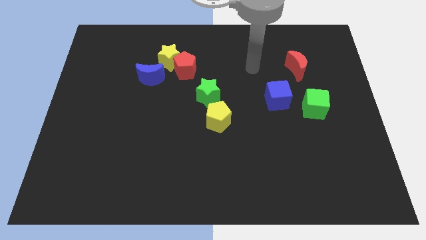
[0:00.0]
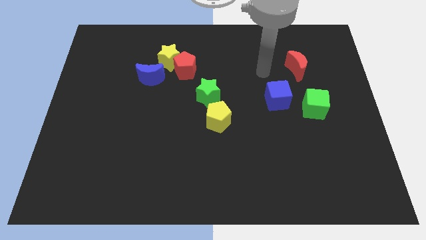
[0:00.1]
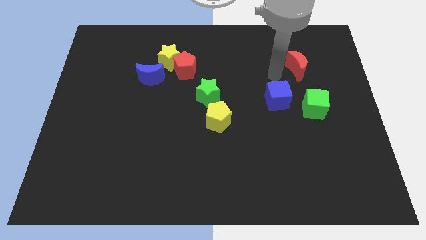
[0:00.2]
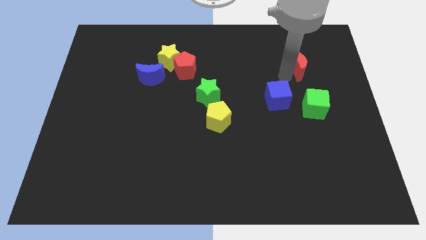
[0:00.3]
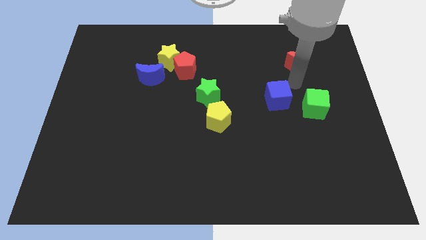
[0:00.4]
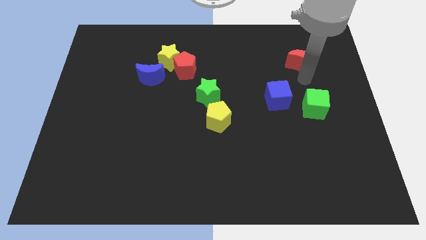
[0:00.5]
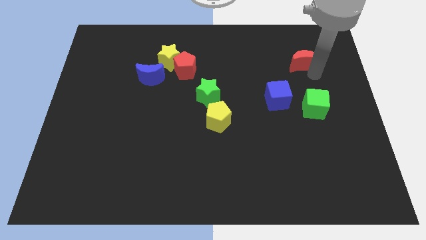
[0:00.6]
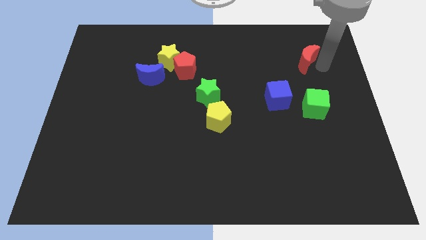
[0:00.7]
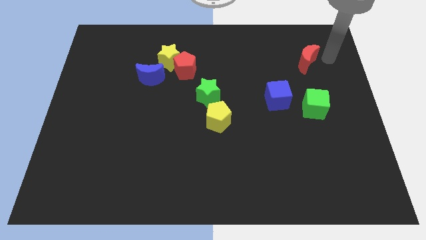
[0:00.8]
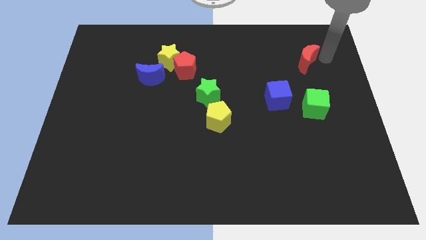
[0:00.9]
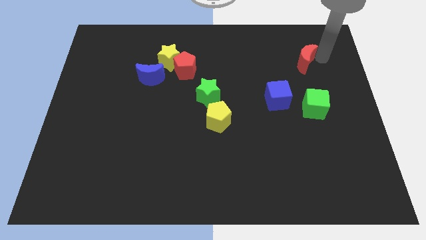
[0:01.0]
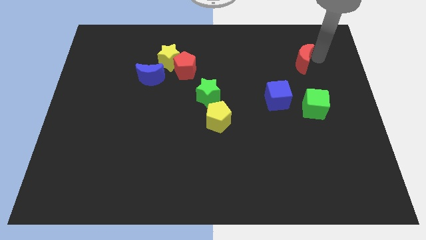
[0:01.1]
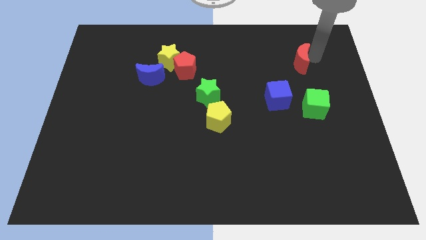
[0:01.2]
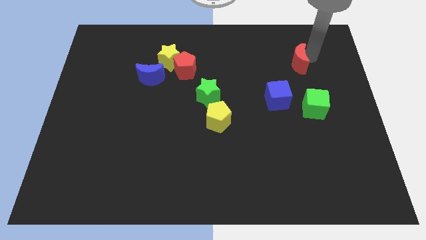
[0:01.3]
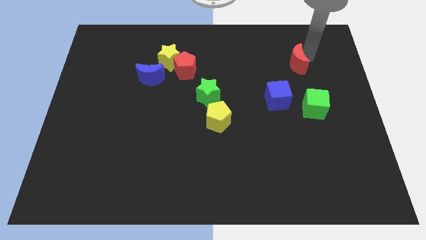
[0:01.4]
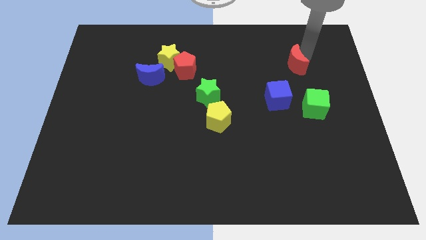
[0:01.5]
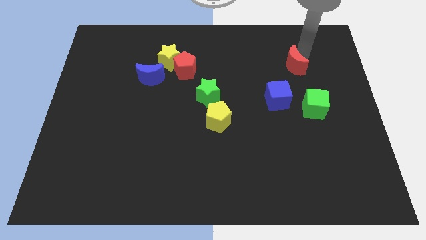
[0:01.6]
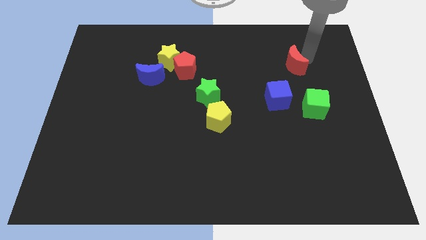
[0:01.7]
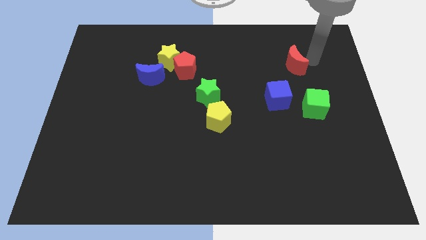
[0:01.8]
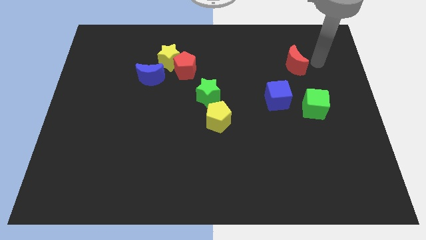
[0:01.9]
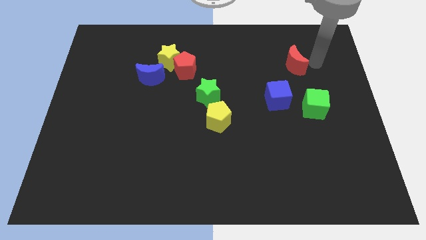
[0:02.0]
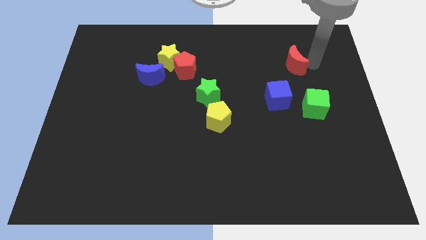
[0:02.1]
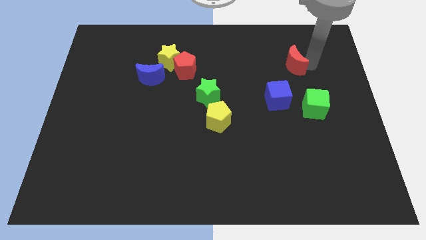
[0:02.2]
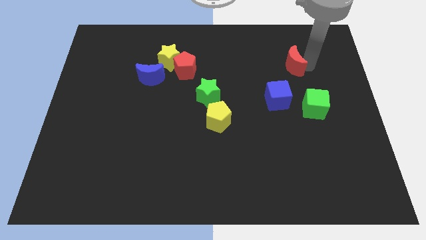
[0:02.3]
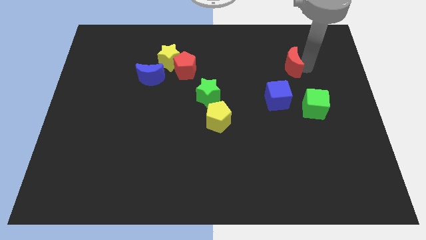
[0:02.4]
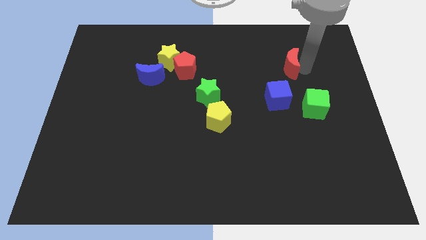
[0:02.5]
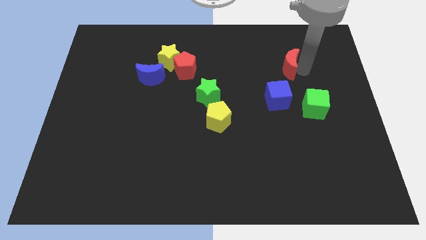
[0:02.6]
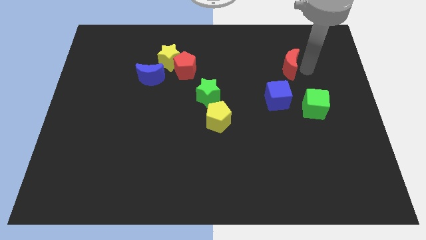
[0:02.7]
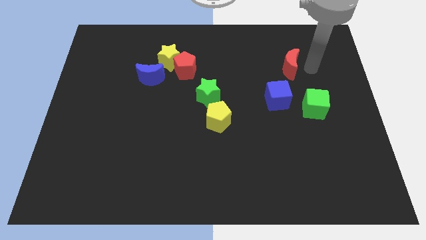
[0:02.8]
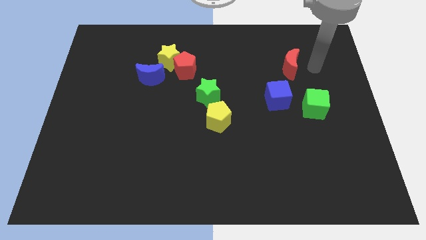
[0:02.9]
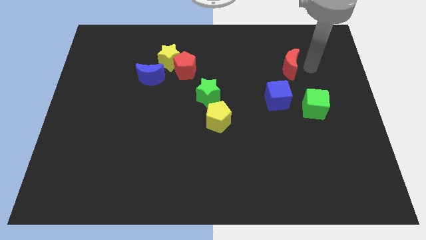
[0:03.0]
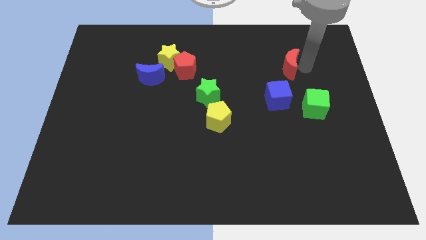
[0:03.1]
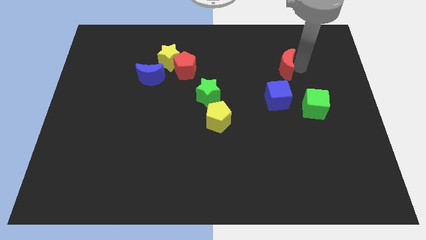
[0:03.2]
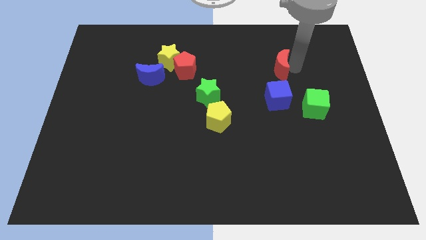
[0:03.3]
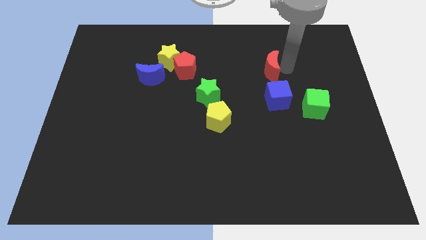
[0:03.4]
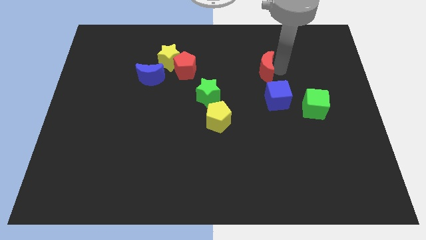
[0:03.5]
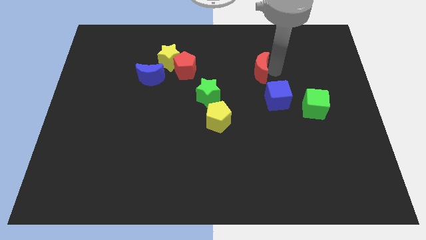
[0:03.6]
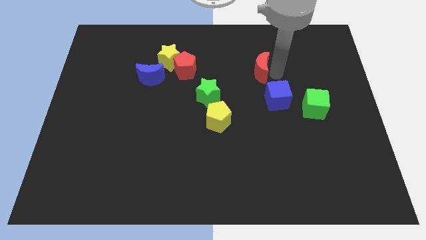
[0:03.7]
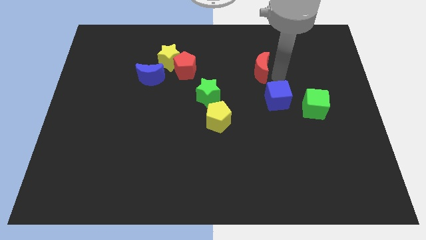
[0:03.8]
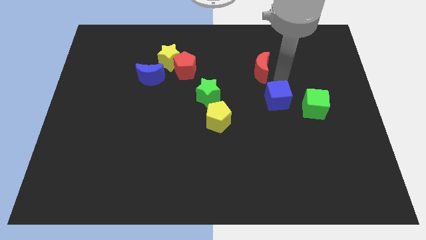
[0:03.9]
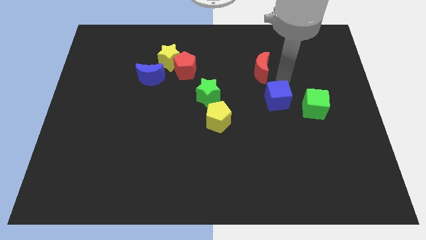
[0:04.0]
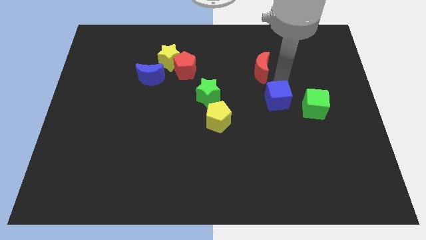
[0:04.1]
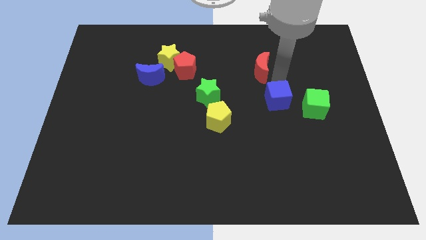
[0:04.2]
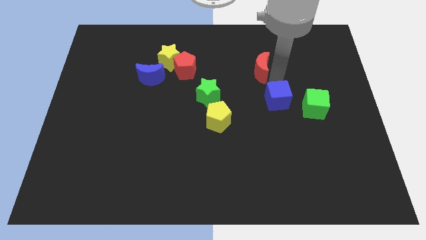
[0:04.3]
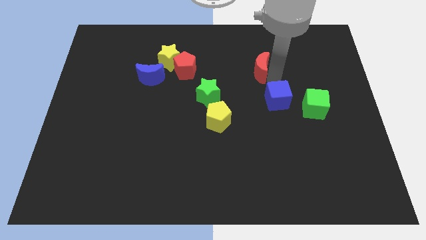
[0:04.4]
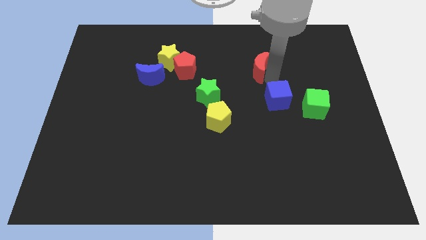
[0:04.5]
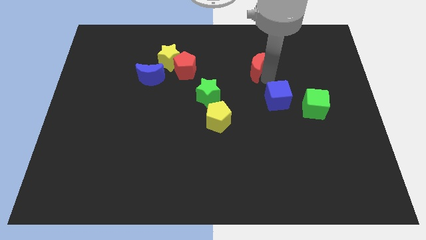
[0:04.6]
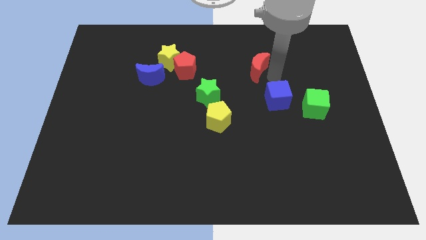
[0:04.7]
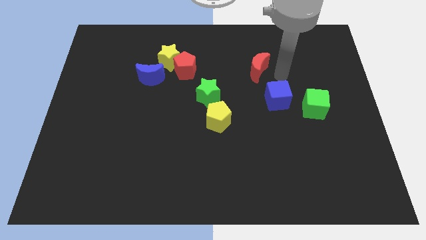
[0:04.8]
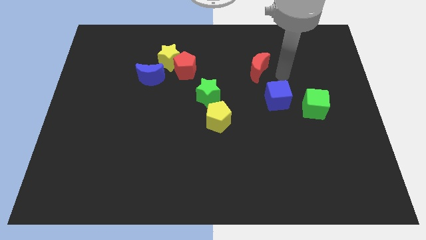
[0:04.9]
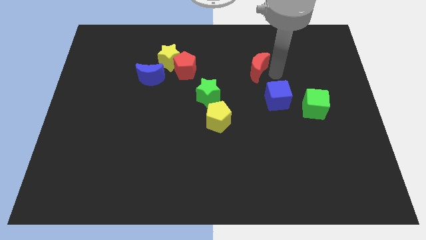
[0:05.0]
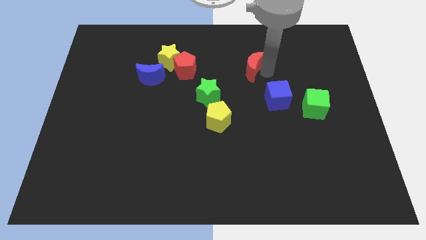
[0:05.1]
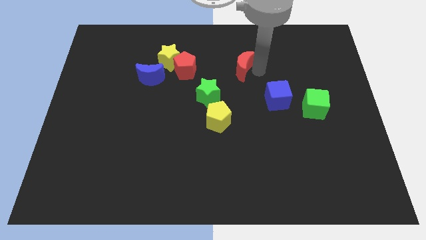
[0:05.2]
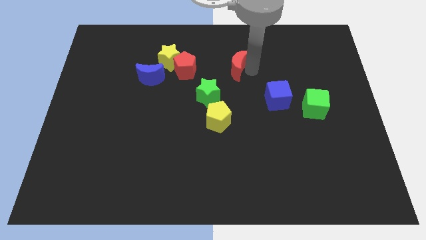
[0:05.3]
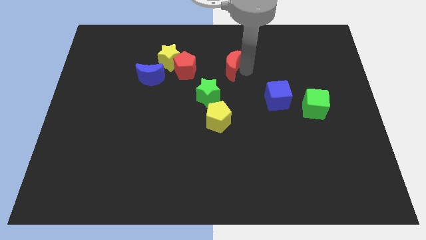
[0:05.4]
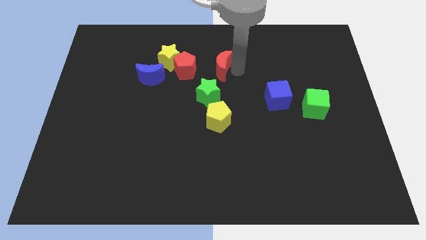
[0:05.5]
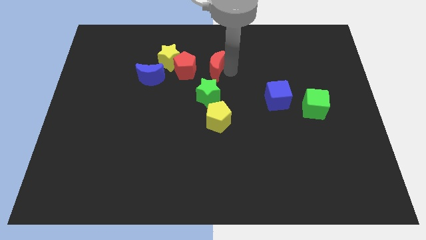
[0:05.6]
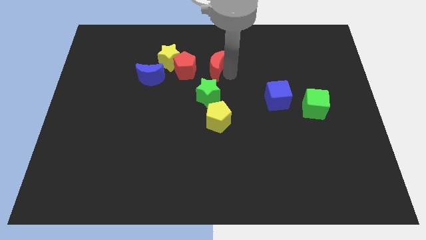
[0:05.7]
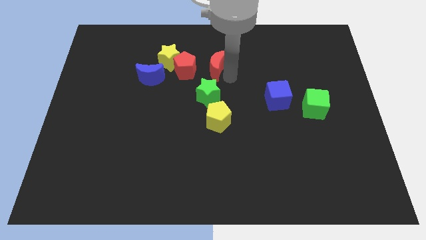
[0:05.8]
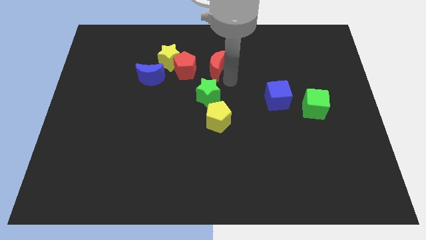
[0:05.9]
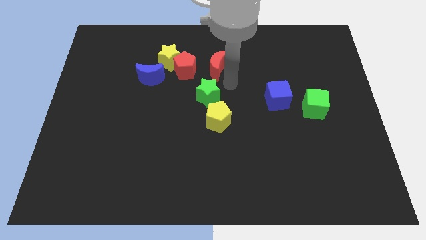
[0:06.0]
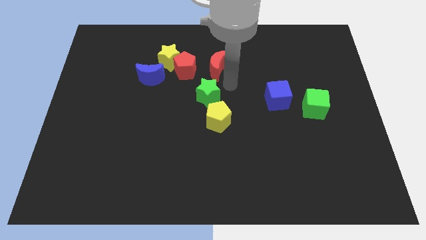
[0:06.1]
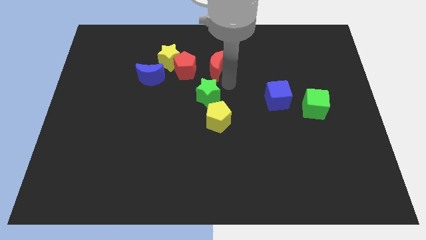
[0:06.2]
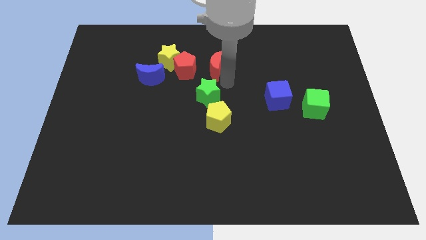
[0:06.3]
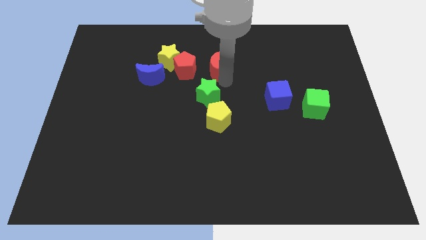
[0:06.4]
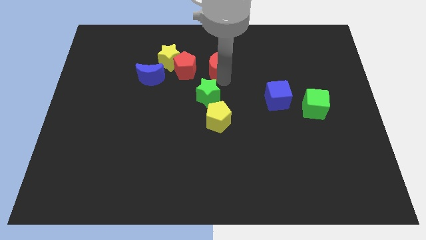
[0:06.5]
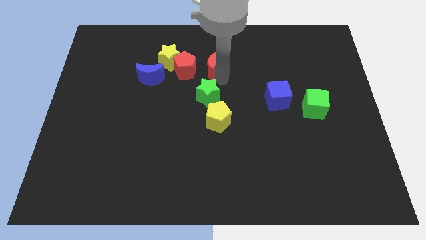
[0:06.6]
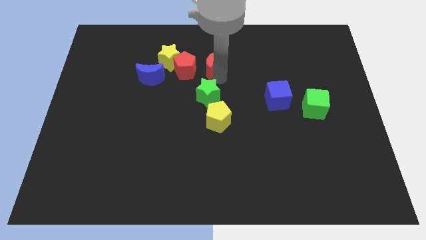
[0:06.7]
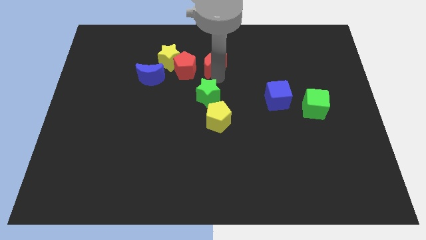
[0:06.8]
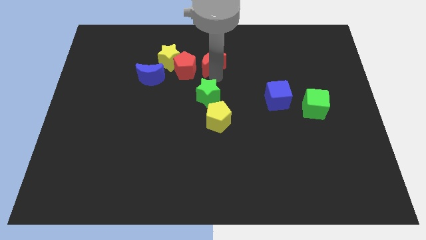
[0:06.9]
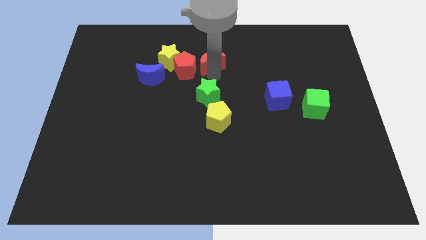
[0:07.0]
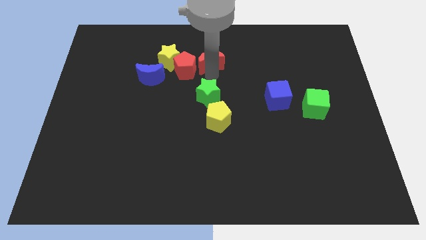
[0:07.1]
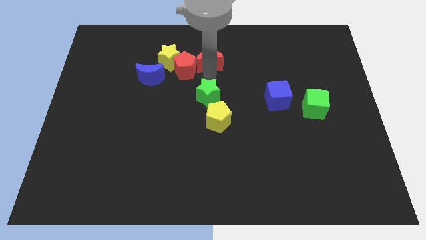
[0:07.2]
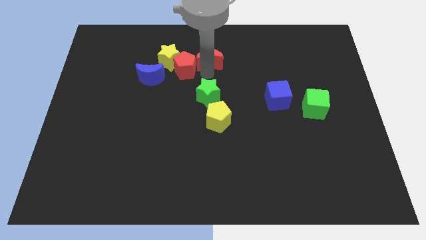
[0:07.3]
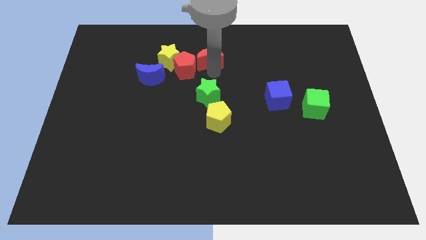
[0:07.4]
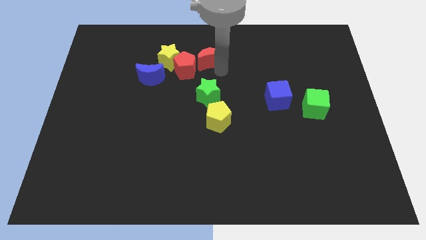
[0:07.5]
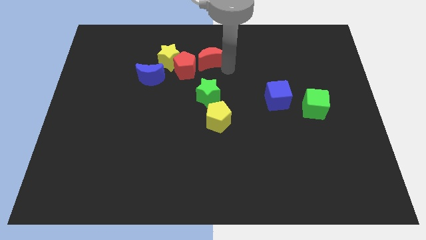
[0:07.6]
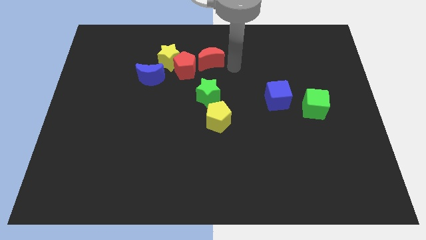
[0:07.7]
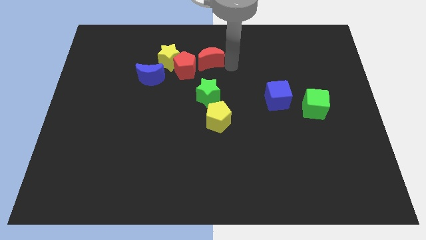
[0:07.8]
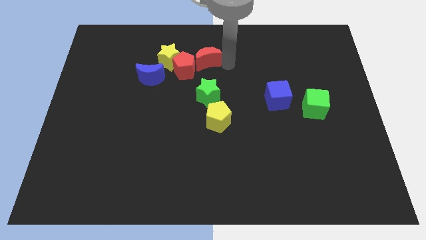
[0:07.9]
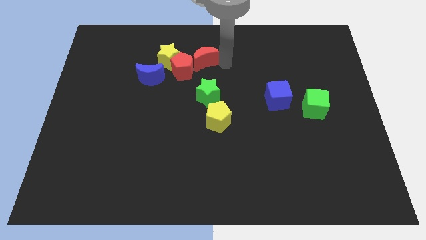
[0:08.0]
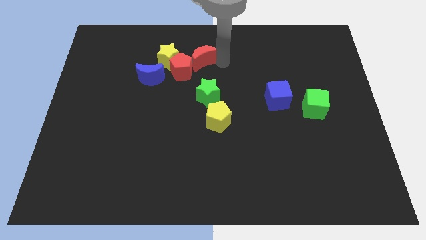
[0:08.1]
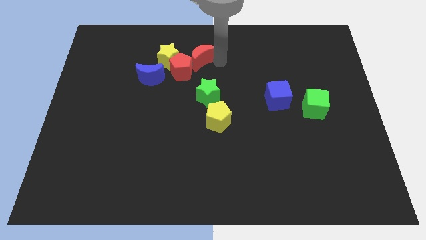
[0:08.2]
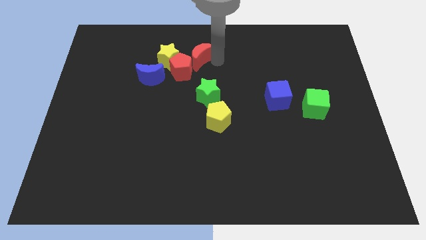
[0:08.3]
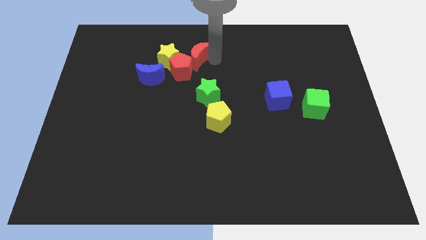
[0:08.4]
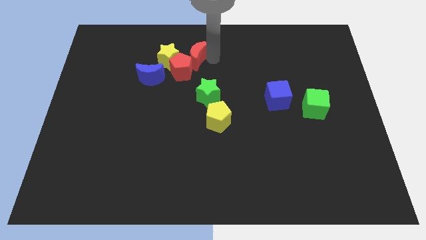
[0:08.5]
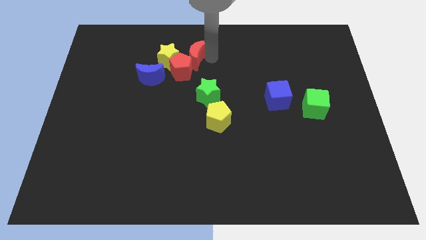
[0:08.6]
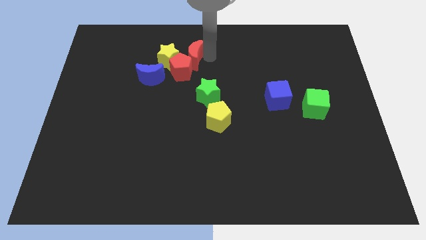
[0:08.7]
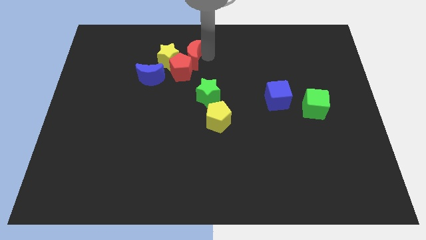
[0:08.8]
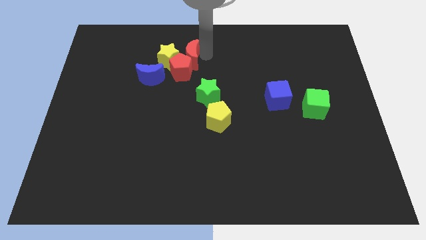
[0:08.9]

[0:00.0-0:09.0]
push the red moon towards the yellow star
